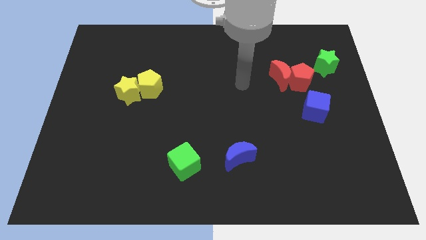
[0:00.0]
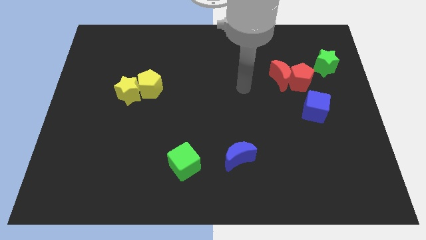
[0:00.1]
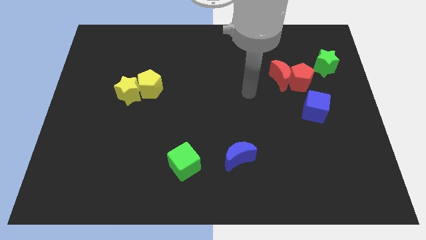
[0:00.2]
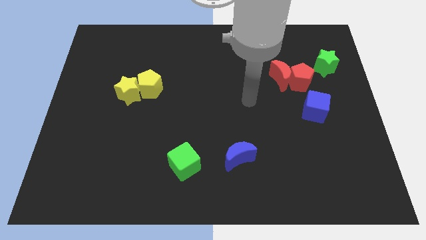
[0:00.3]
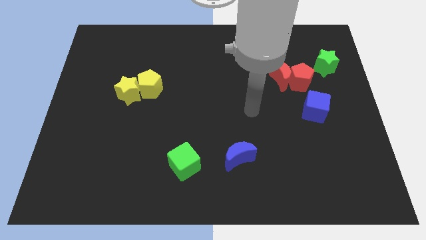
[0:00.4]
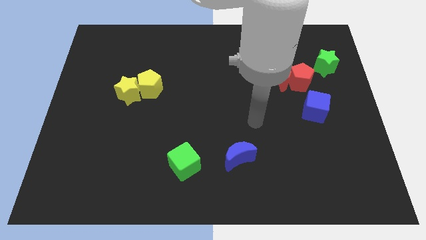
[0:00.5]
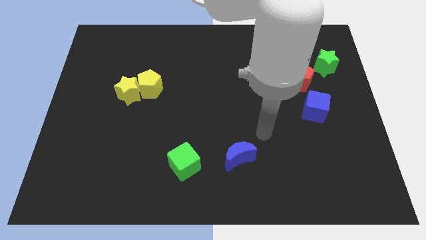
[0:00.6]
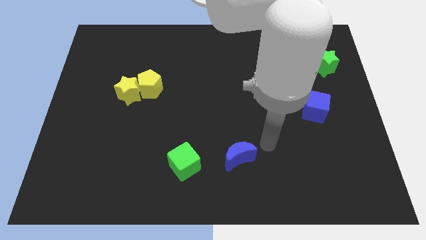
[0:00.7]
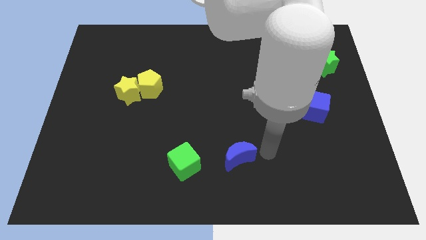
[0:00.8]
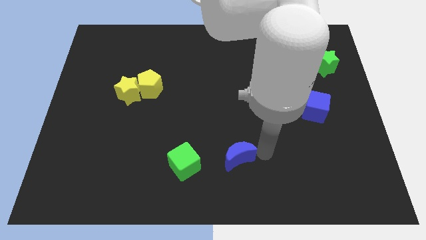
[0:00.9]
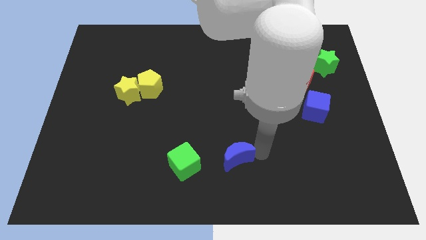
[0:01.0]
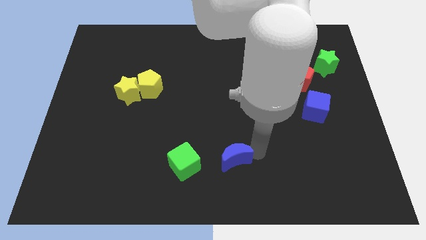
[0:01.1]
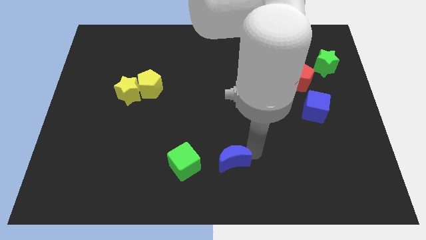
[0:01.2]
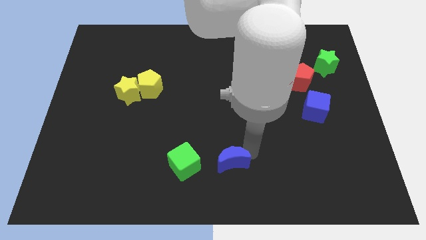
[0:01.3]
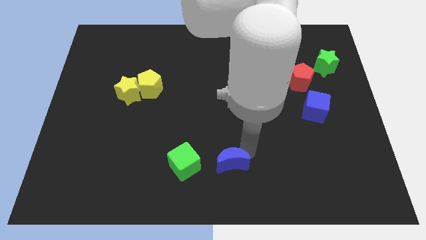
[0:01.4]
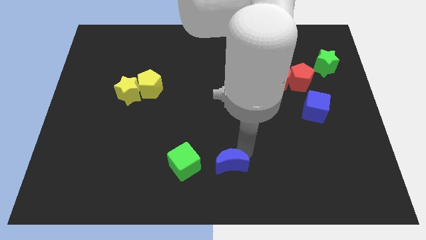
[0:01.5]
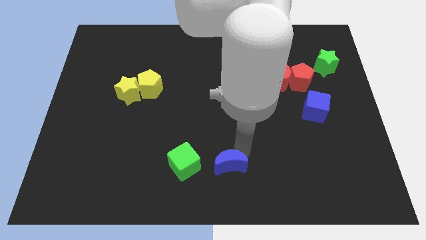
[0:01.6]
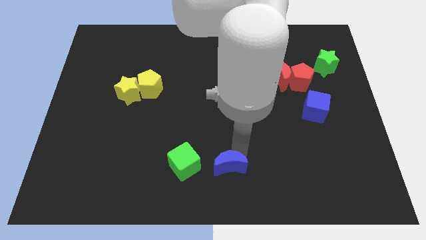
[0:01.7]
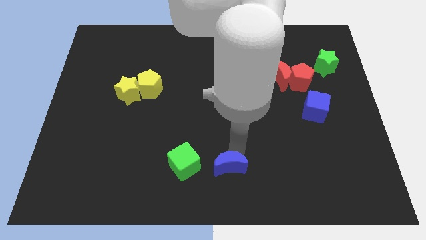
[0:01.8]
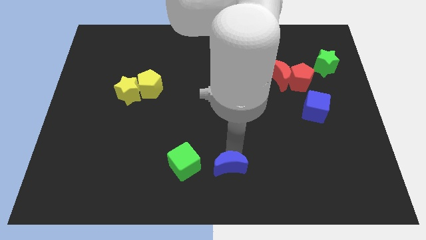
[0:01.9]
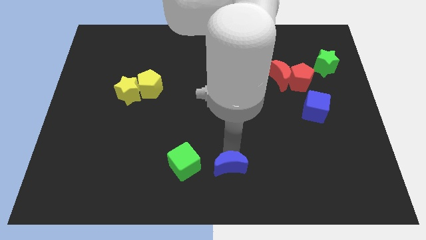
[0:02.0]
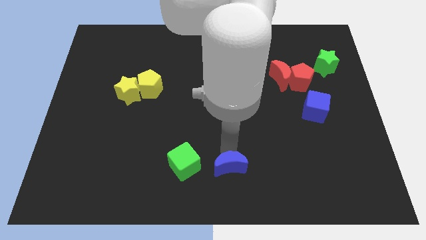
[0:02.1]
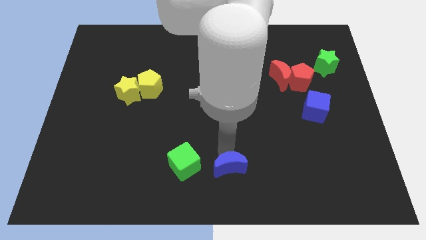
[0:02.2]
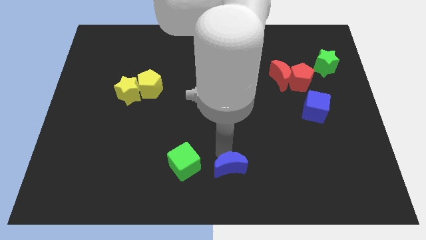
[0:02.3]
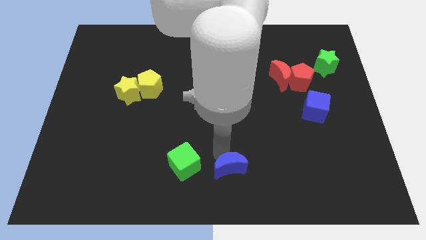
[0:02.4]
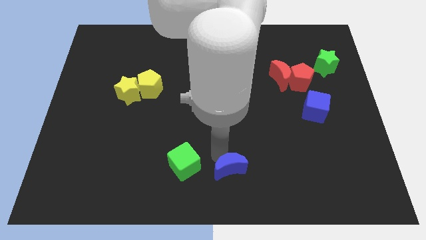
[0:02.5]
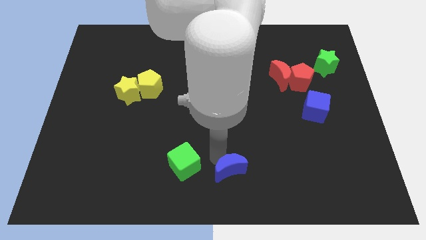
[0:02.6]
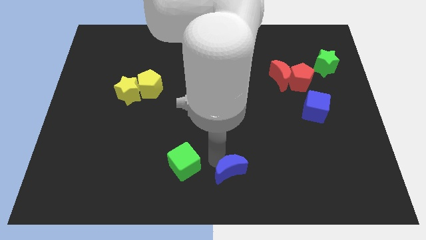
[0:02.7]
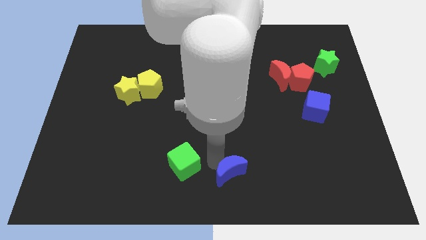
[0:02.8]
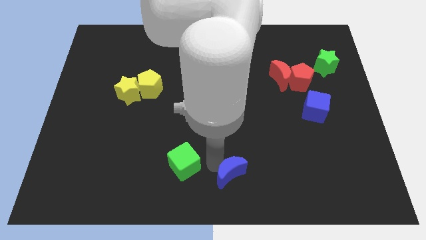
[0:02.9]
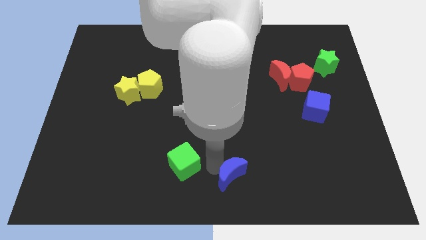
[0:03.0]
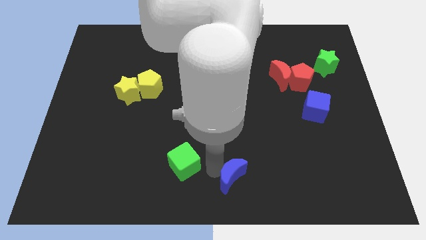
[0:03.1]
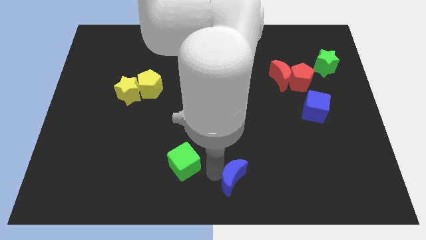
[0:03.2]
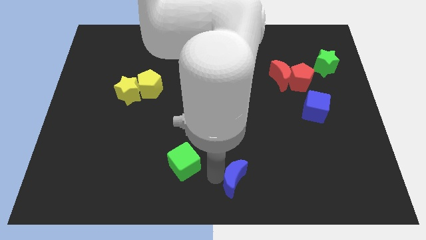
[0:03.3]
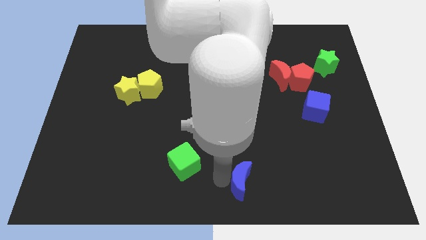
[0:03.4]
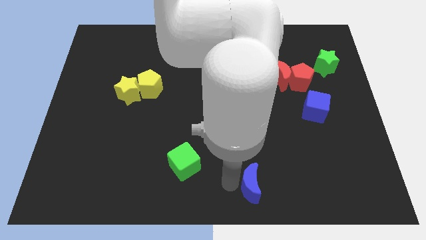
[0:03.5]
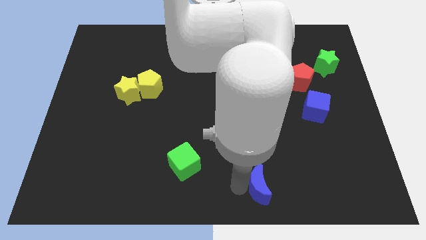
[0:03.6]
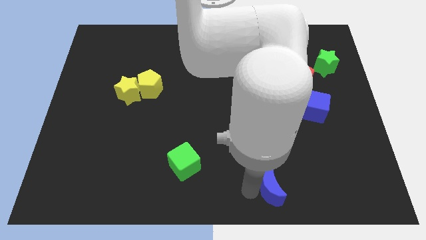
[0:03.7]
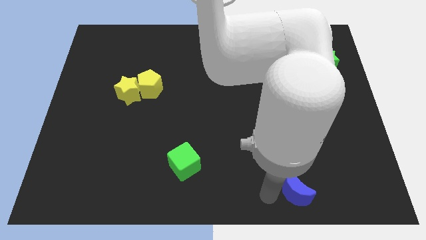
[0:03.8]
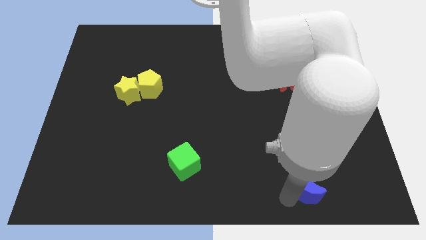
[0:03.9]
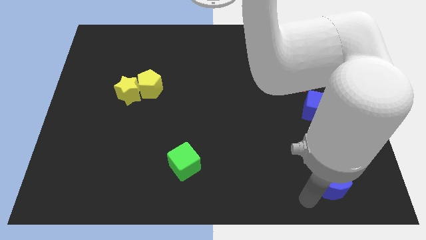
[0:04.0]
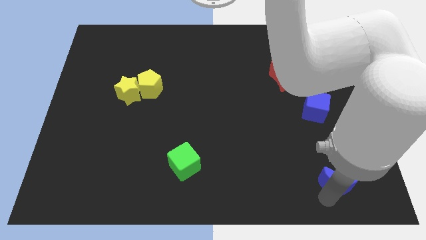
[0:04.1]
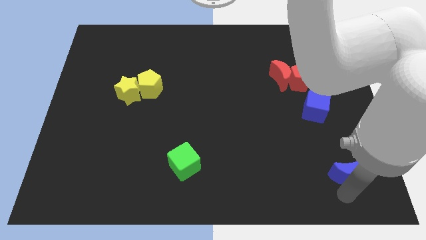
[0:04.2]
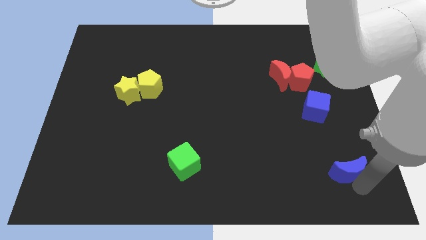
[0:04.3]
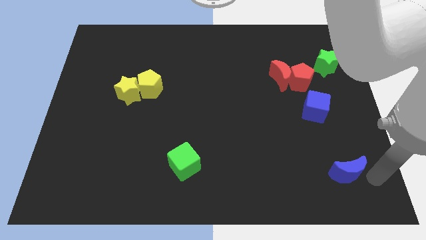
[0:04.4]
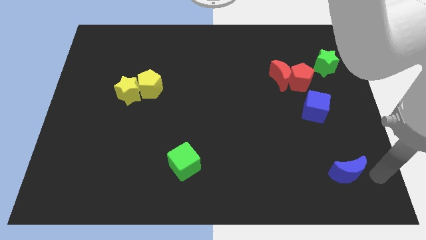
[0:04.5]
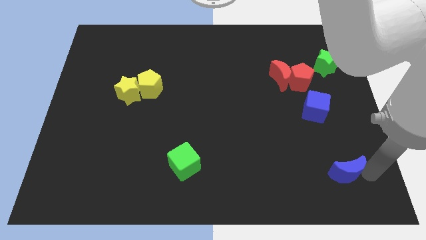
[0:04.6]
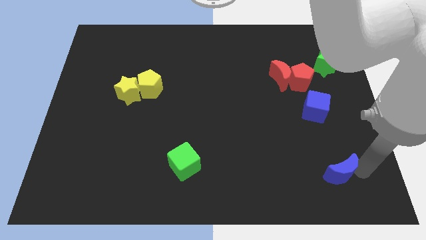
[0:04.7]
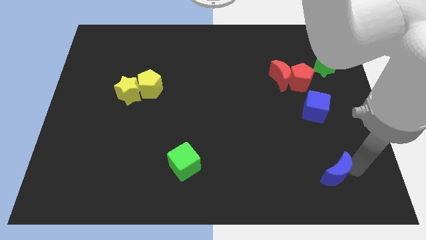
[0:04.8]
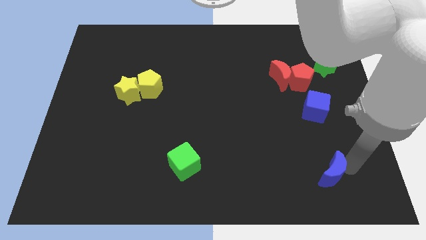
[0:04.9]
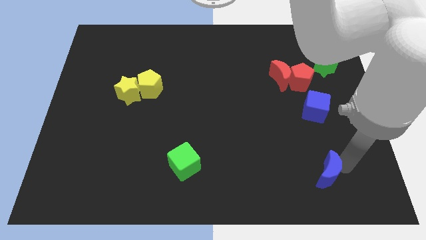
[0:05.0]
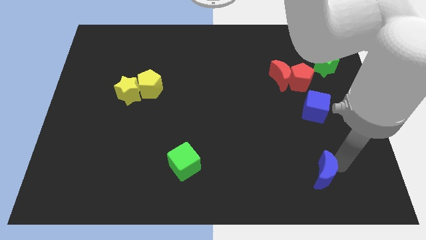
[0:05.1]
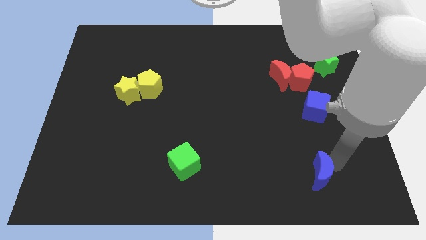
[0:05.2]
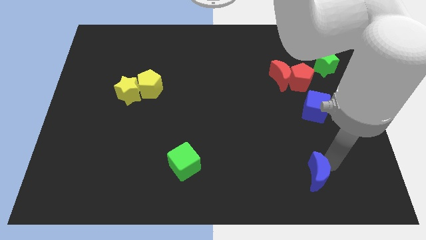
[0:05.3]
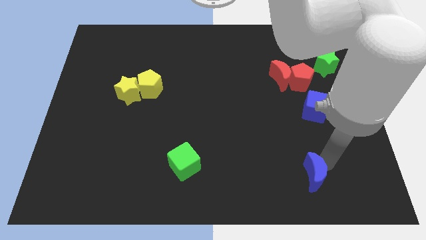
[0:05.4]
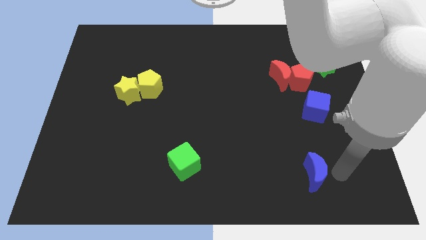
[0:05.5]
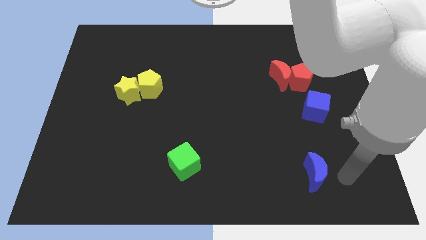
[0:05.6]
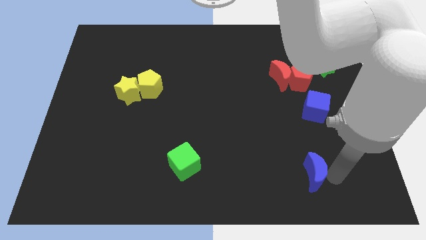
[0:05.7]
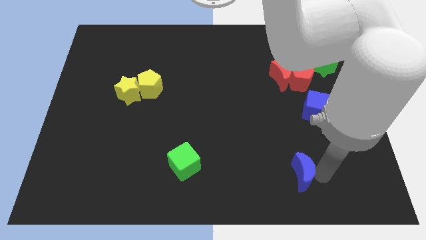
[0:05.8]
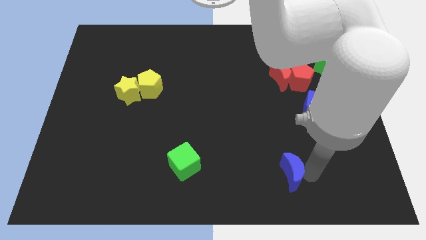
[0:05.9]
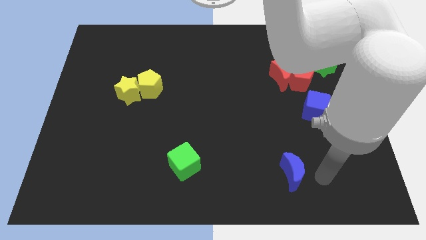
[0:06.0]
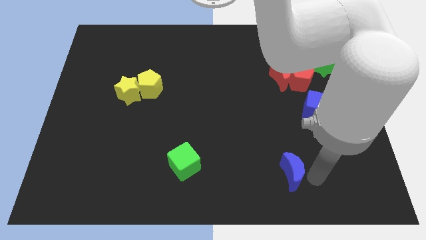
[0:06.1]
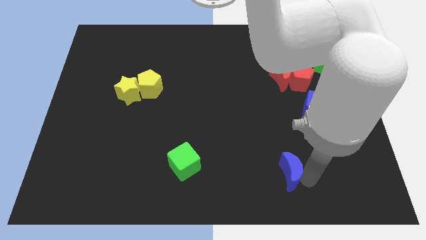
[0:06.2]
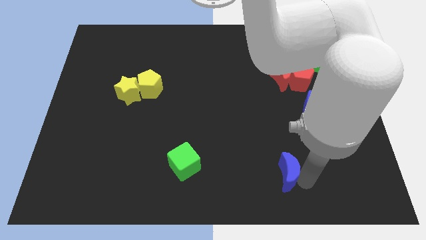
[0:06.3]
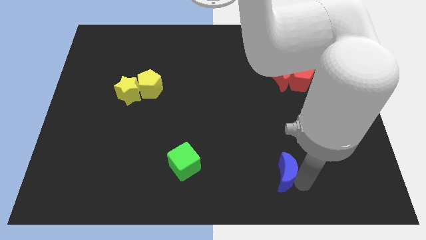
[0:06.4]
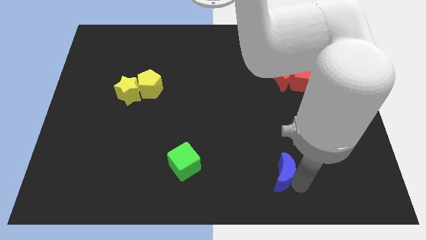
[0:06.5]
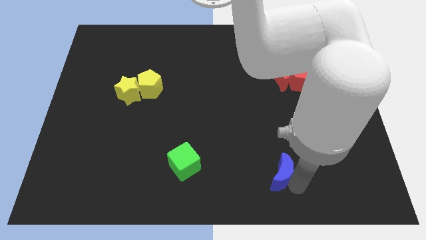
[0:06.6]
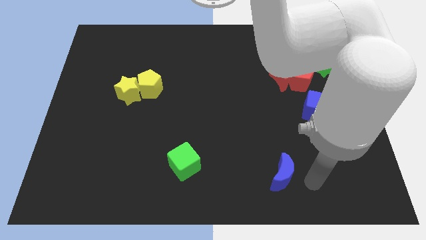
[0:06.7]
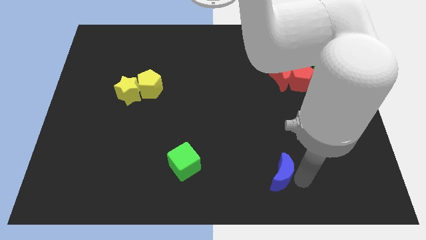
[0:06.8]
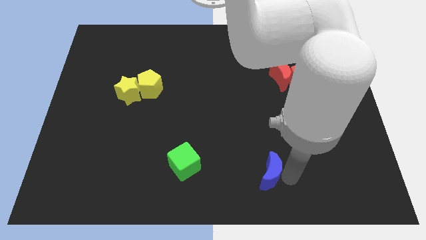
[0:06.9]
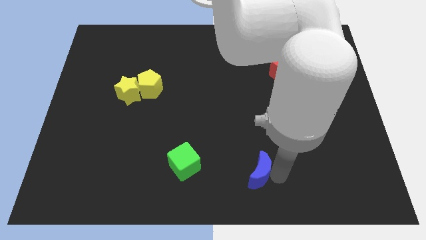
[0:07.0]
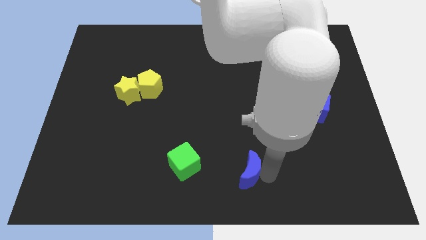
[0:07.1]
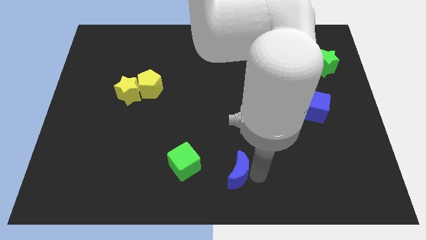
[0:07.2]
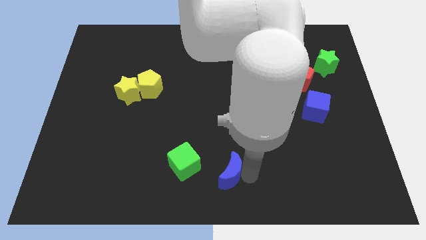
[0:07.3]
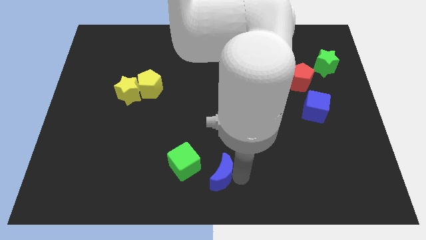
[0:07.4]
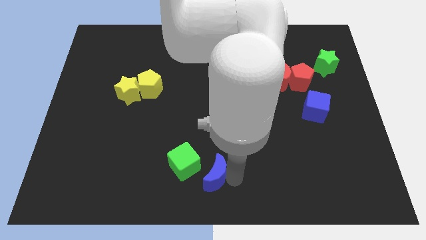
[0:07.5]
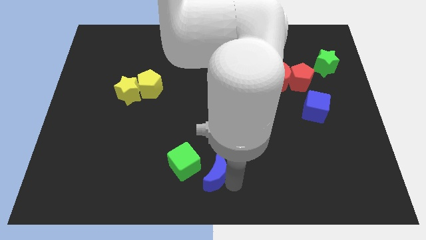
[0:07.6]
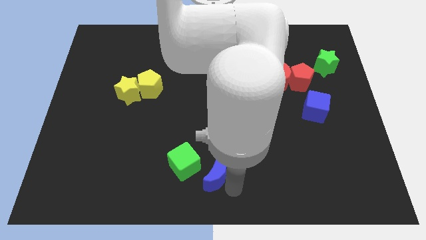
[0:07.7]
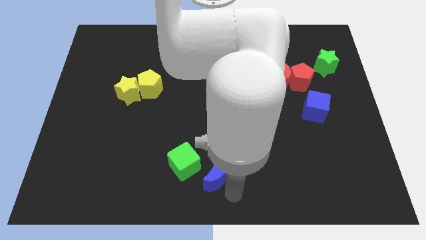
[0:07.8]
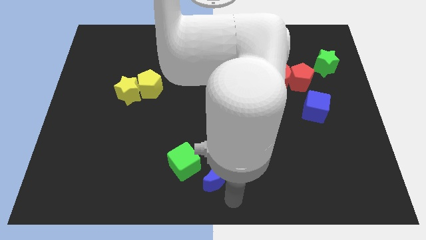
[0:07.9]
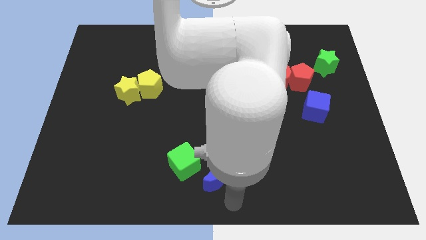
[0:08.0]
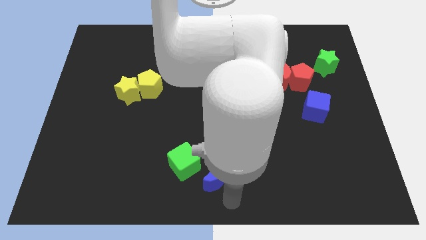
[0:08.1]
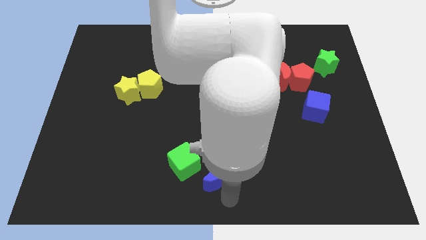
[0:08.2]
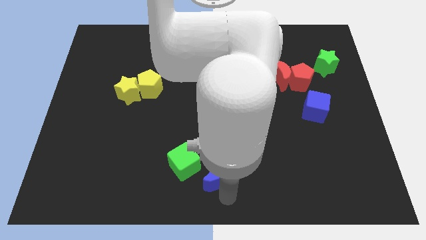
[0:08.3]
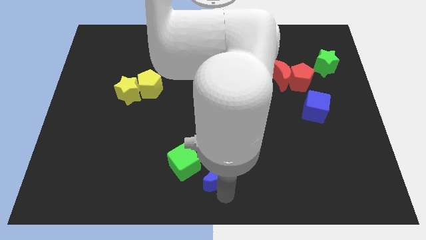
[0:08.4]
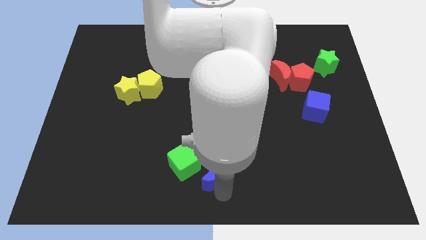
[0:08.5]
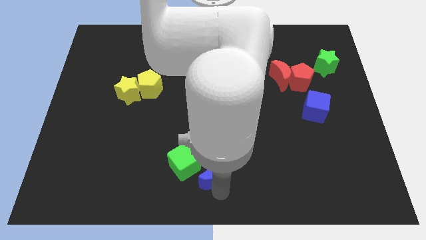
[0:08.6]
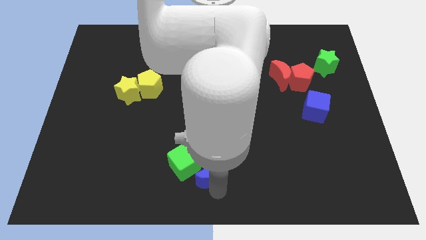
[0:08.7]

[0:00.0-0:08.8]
put the blue moon to the green cube
